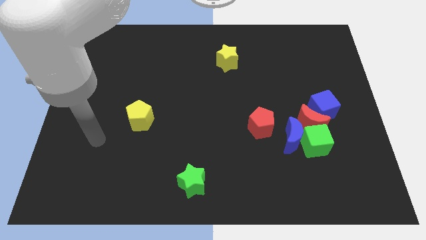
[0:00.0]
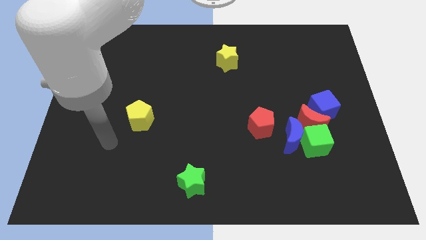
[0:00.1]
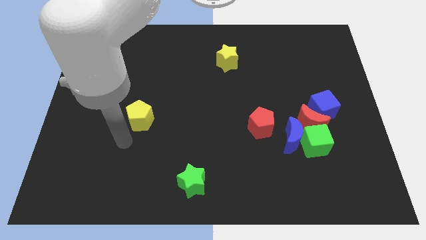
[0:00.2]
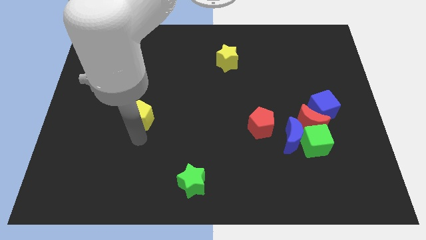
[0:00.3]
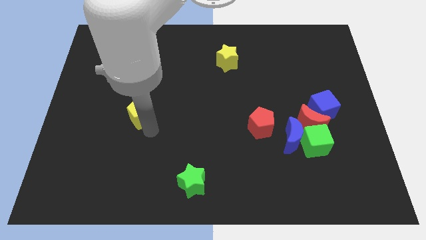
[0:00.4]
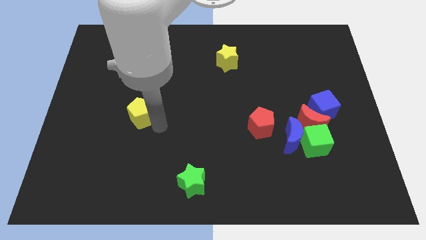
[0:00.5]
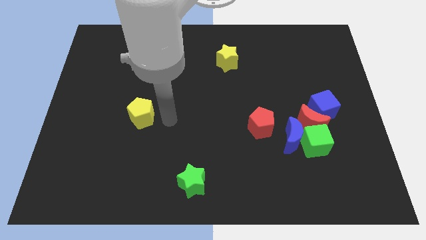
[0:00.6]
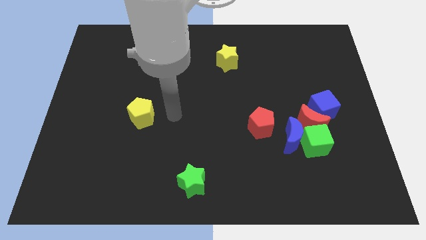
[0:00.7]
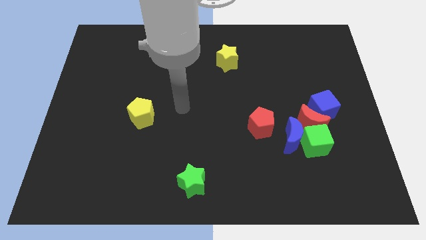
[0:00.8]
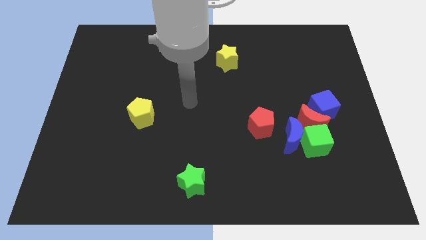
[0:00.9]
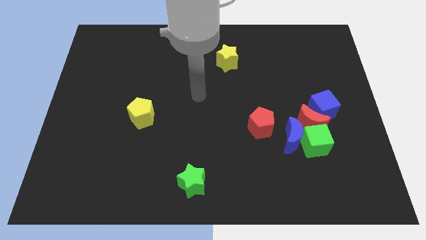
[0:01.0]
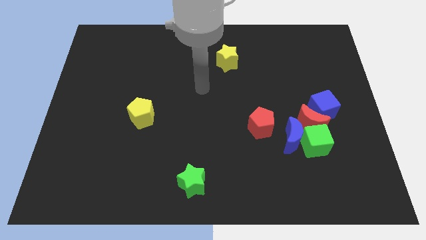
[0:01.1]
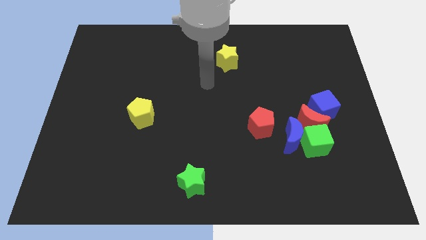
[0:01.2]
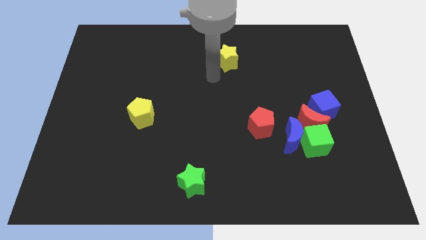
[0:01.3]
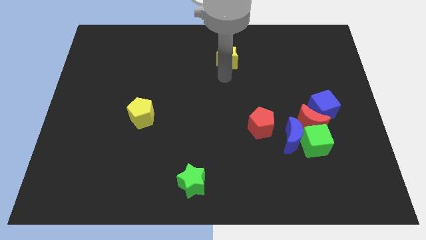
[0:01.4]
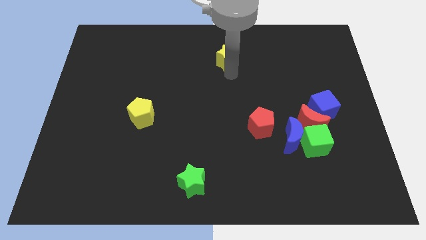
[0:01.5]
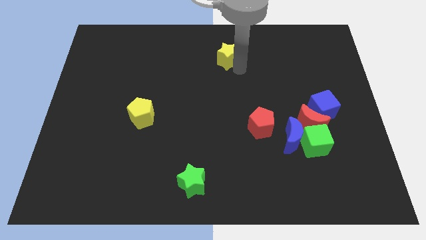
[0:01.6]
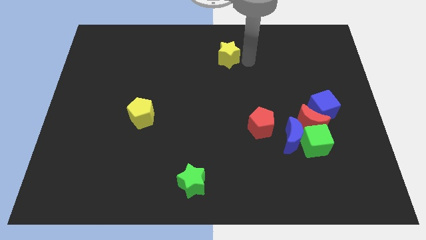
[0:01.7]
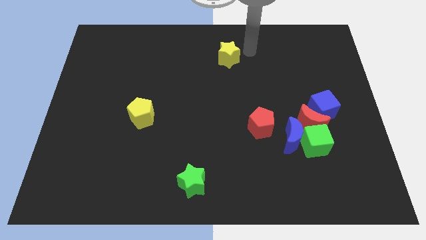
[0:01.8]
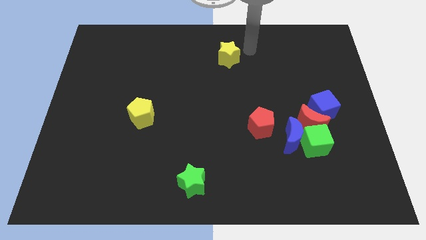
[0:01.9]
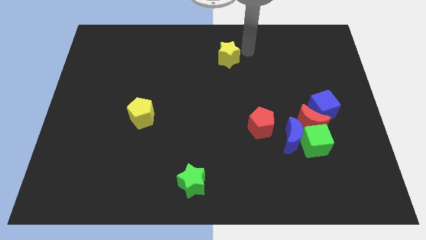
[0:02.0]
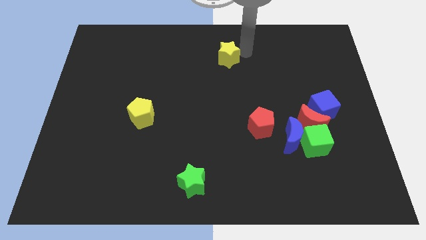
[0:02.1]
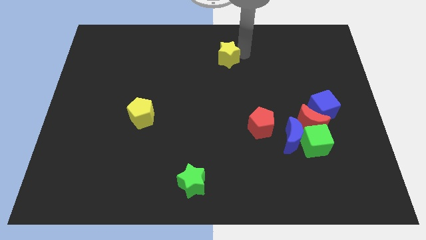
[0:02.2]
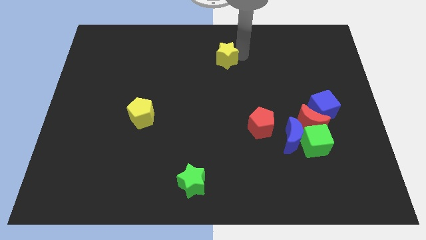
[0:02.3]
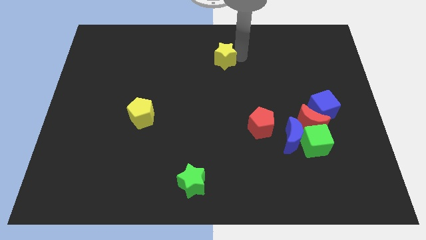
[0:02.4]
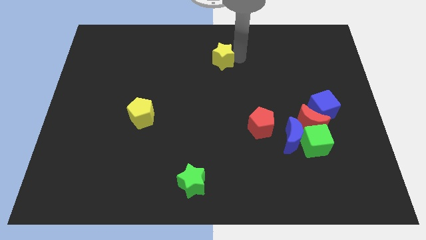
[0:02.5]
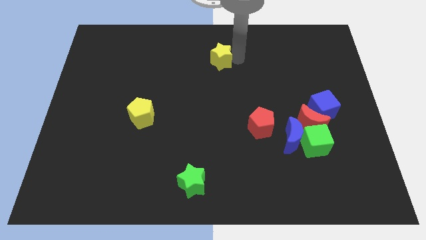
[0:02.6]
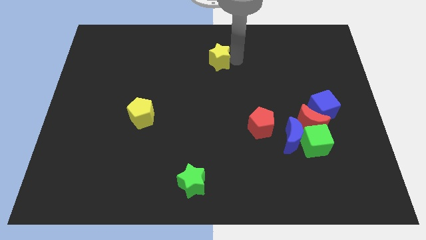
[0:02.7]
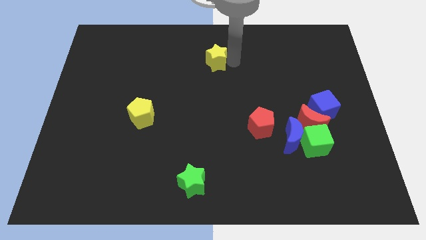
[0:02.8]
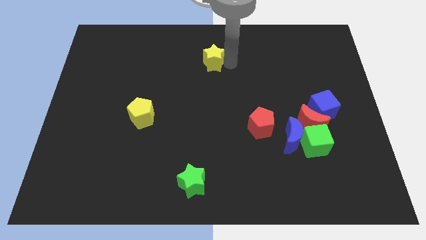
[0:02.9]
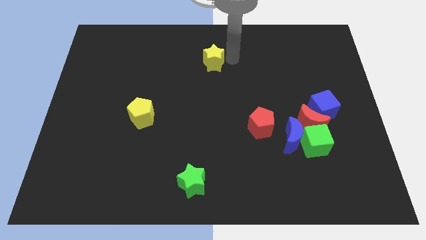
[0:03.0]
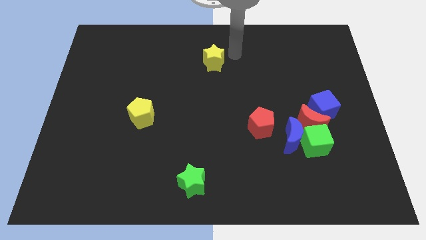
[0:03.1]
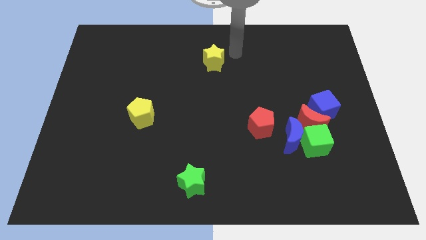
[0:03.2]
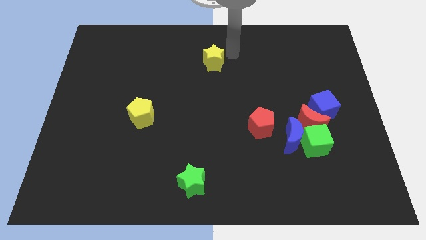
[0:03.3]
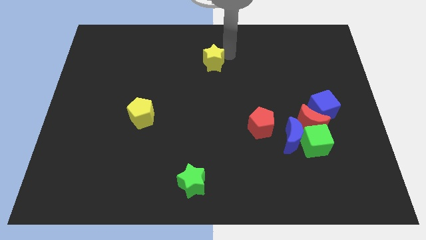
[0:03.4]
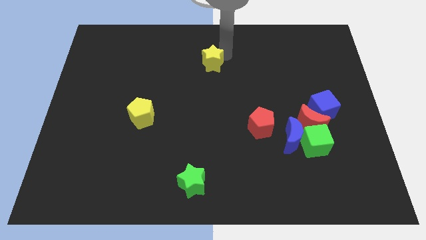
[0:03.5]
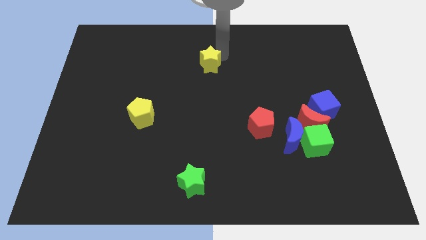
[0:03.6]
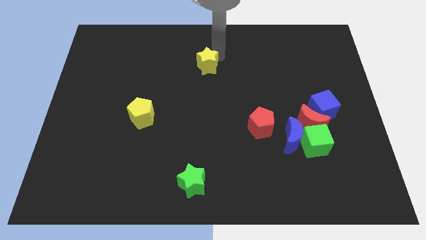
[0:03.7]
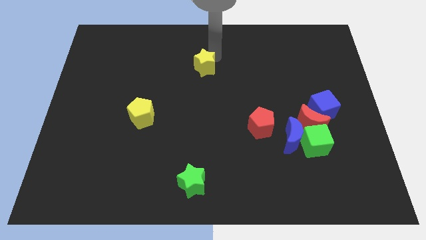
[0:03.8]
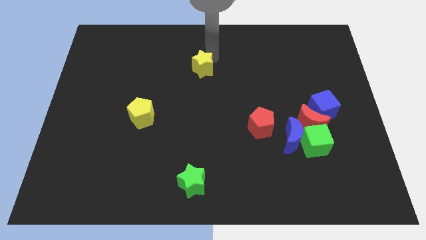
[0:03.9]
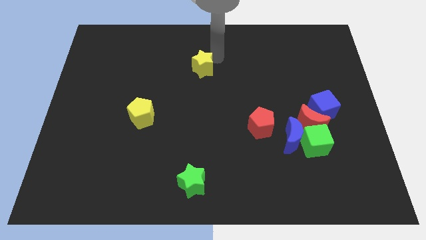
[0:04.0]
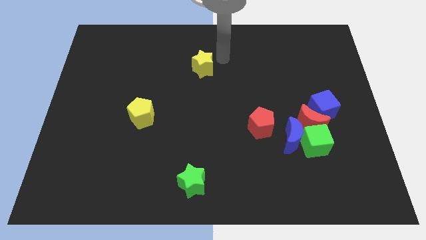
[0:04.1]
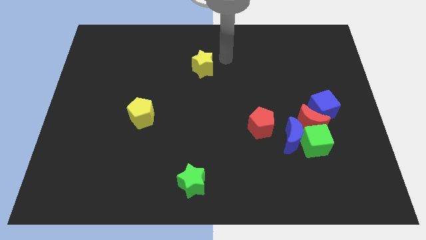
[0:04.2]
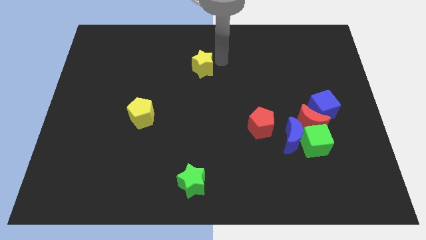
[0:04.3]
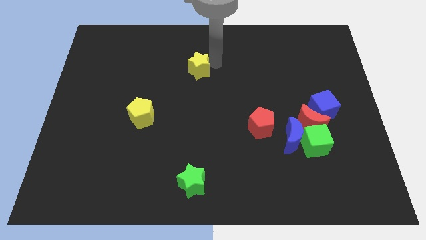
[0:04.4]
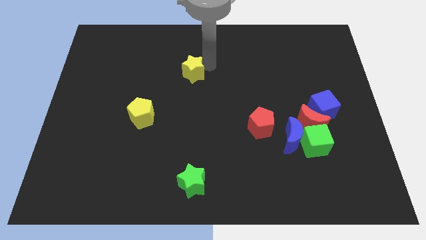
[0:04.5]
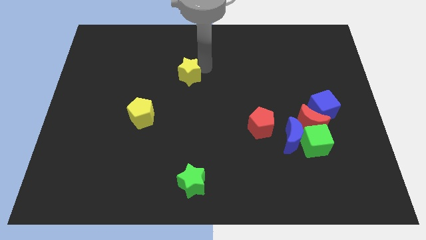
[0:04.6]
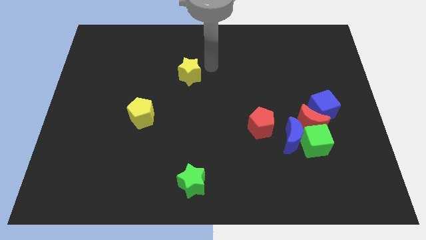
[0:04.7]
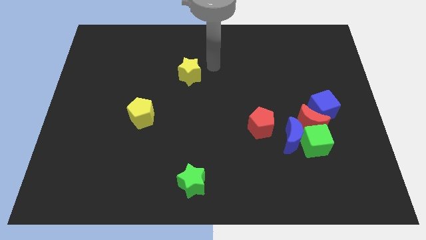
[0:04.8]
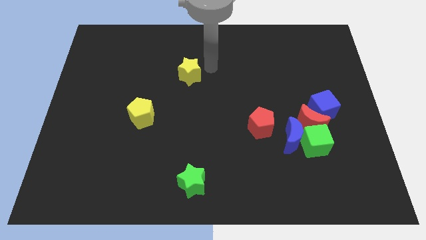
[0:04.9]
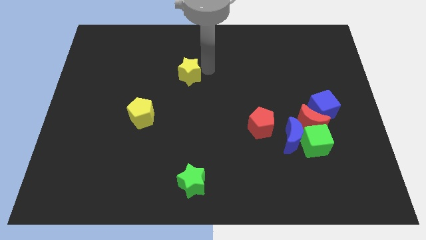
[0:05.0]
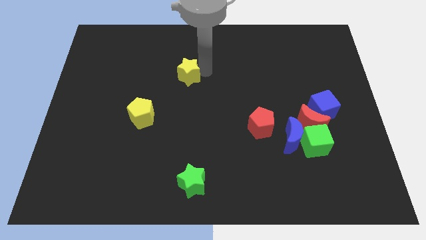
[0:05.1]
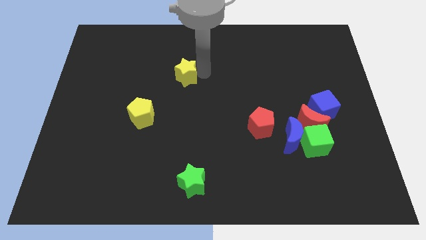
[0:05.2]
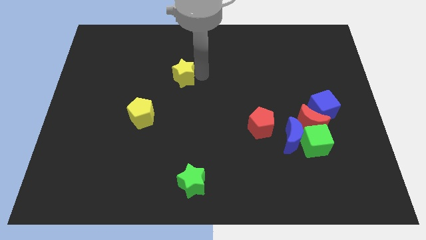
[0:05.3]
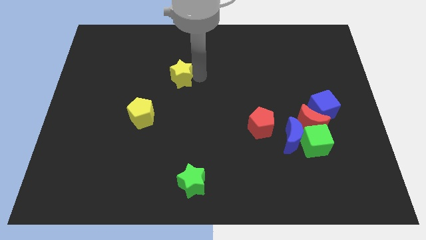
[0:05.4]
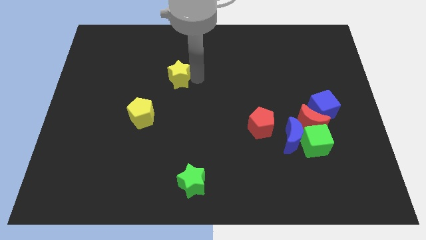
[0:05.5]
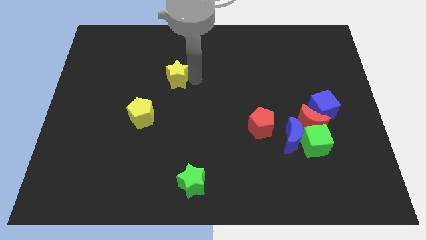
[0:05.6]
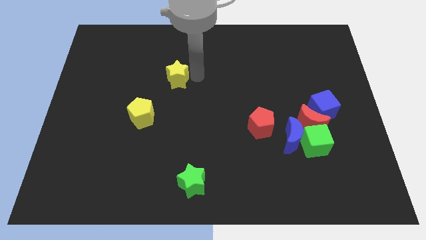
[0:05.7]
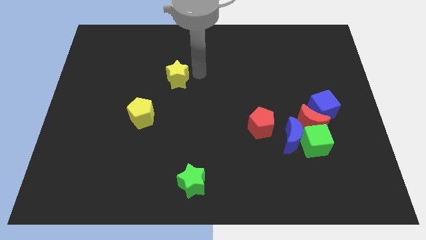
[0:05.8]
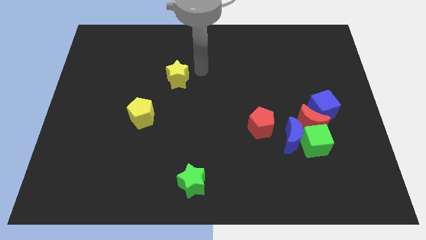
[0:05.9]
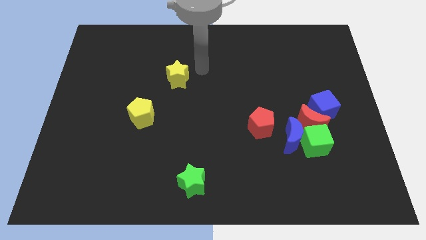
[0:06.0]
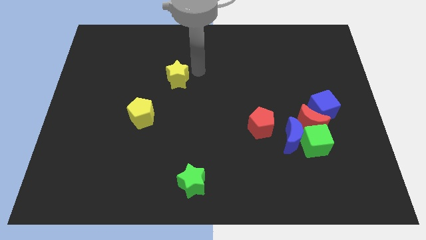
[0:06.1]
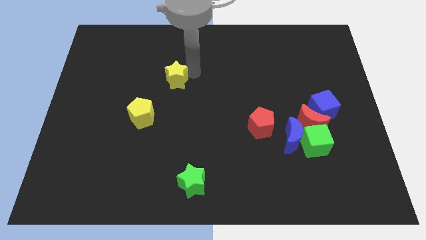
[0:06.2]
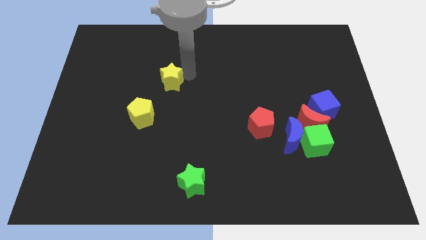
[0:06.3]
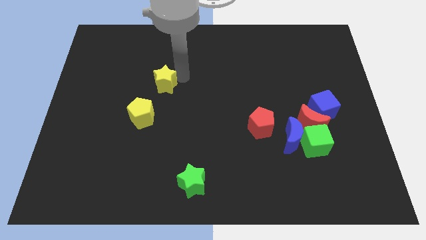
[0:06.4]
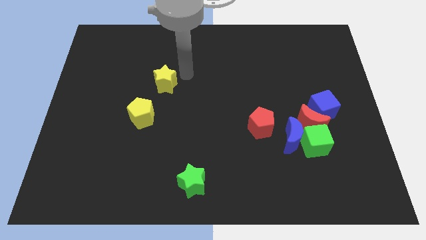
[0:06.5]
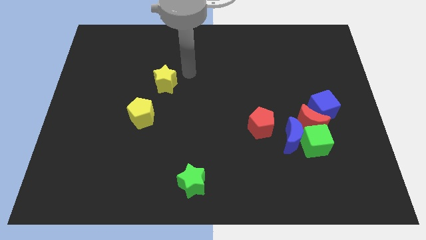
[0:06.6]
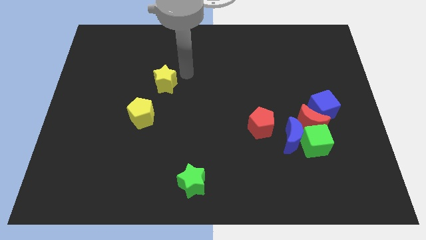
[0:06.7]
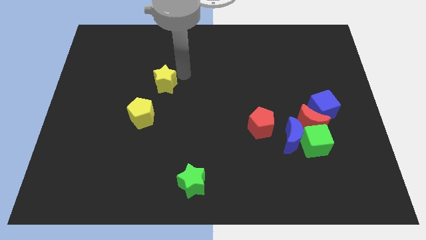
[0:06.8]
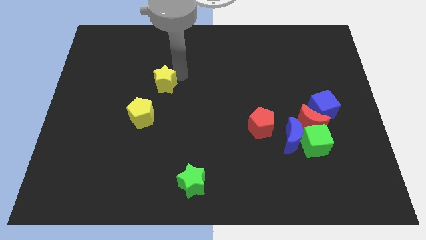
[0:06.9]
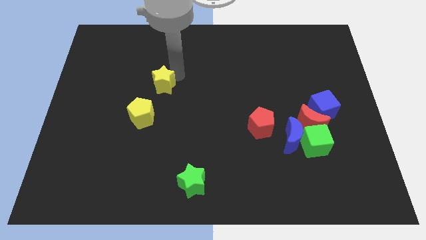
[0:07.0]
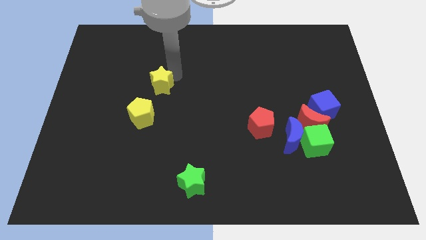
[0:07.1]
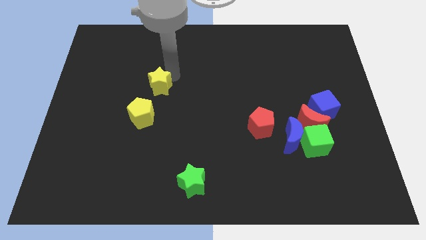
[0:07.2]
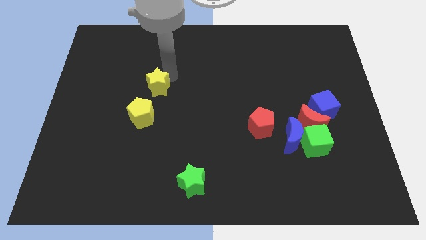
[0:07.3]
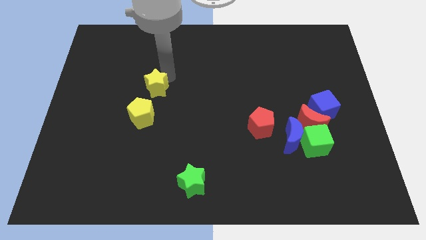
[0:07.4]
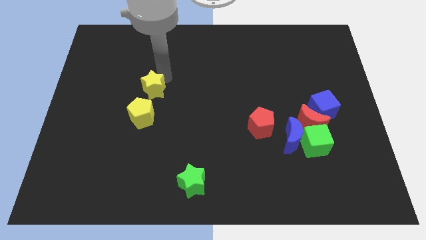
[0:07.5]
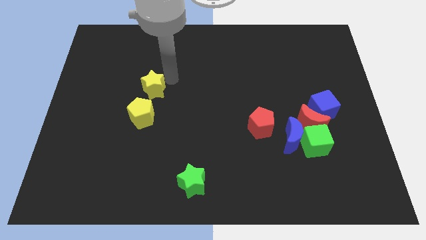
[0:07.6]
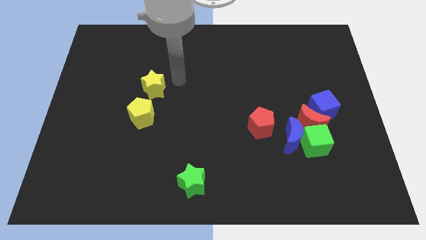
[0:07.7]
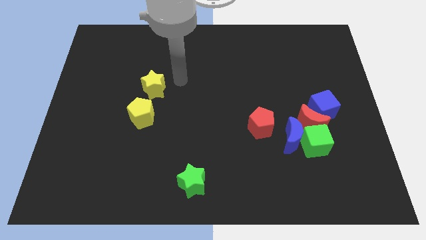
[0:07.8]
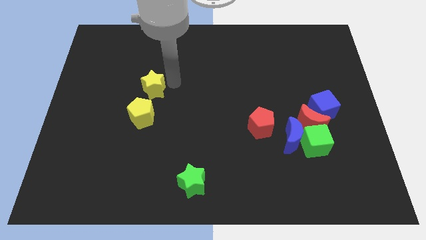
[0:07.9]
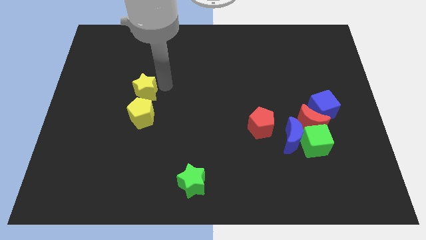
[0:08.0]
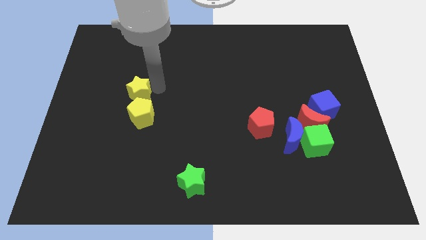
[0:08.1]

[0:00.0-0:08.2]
move the yellow star diagonally up and to the left of the yellow pentagon
